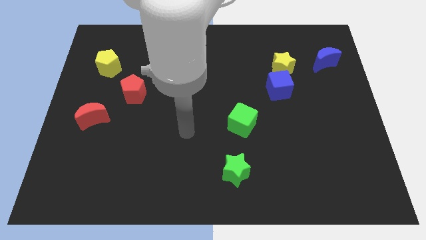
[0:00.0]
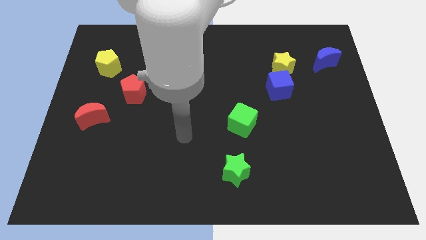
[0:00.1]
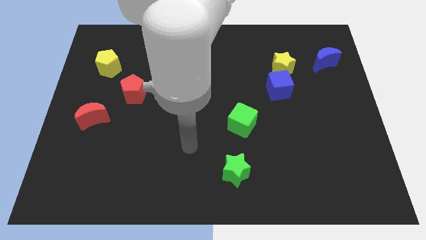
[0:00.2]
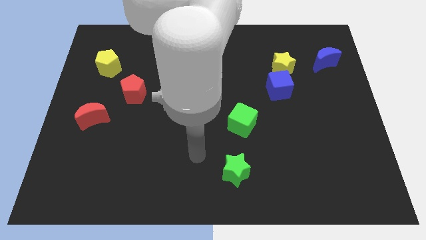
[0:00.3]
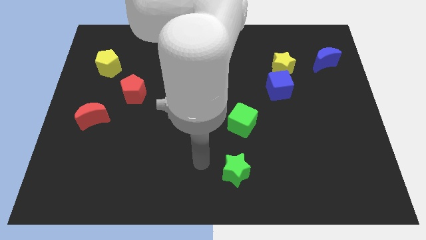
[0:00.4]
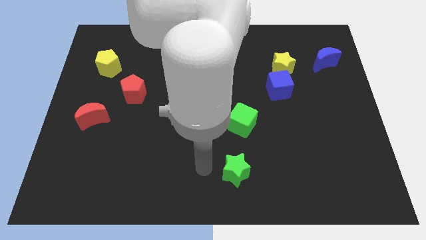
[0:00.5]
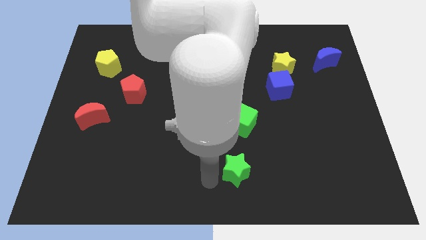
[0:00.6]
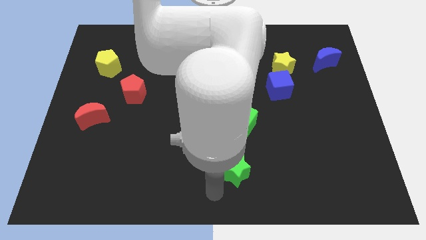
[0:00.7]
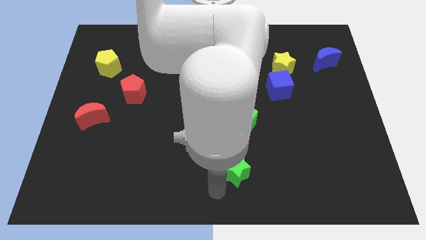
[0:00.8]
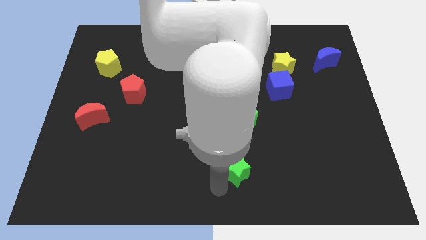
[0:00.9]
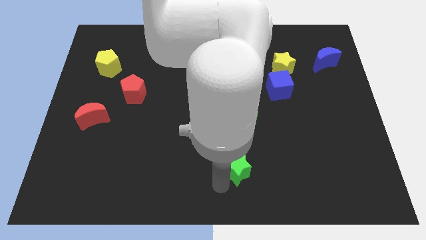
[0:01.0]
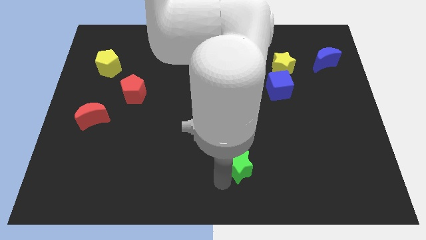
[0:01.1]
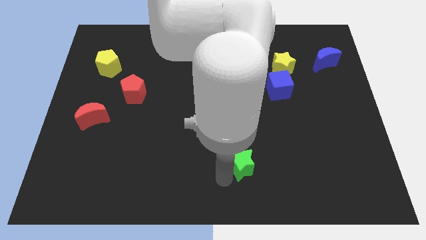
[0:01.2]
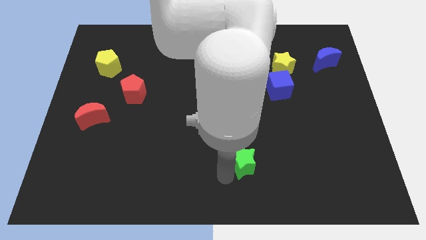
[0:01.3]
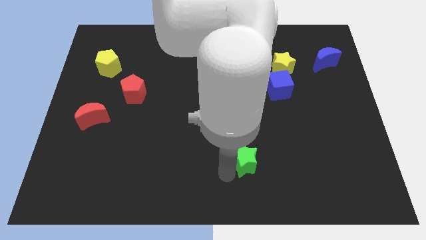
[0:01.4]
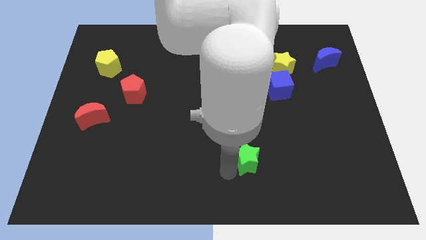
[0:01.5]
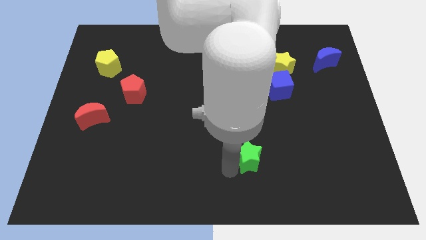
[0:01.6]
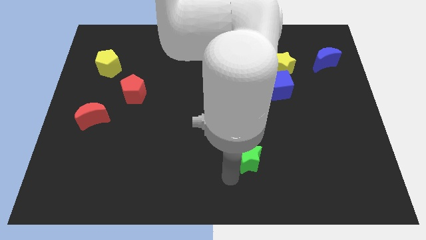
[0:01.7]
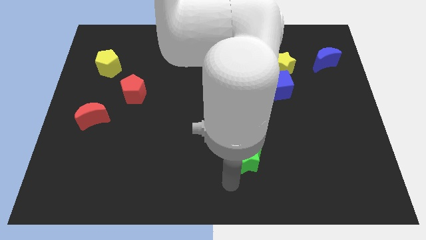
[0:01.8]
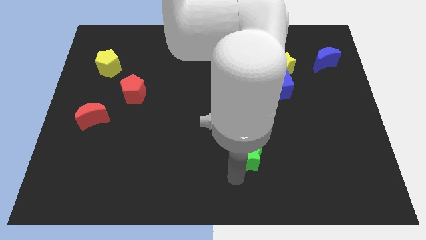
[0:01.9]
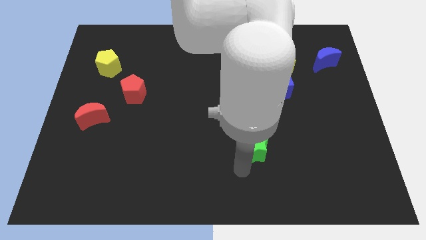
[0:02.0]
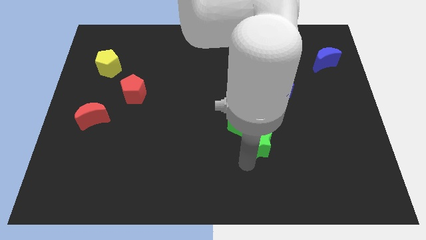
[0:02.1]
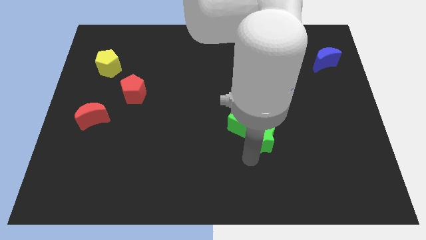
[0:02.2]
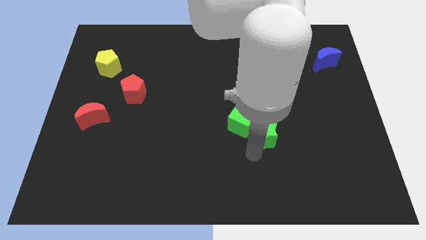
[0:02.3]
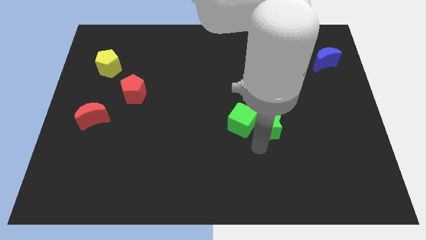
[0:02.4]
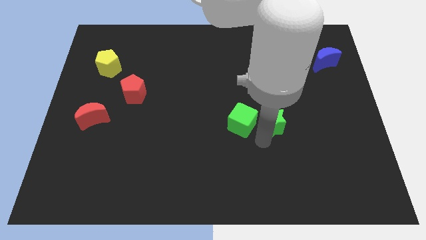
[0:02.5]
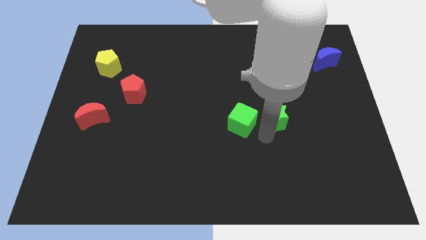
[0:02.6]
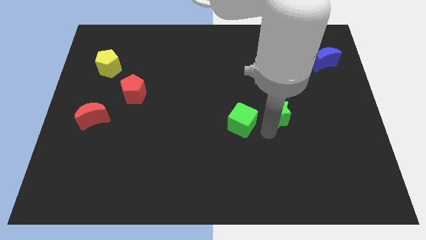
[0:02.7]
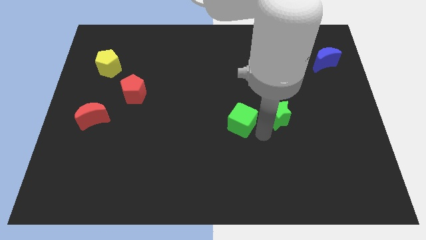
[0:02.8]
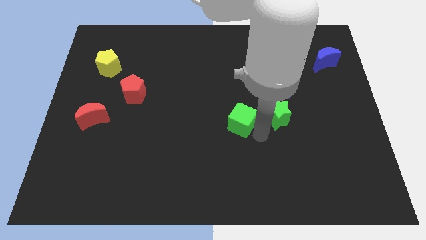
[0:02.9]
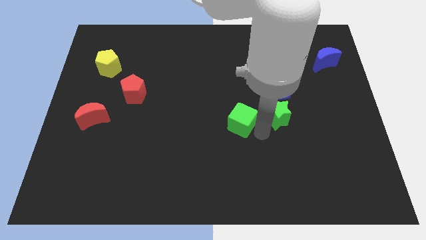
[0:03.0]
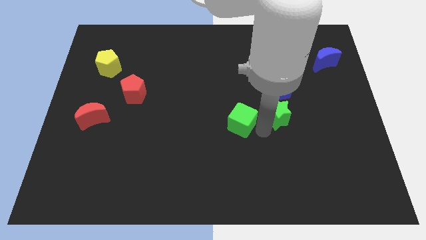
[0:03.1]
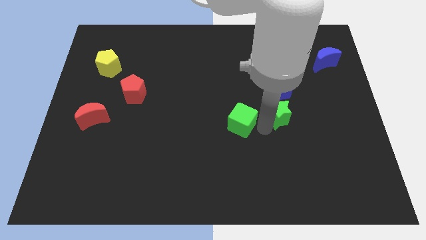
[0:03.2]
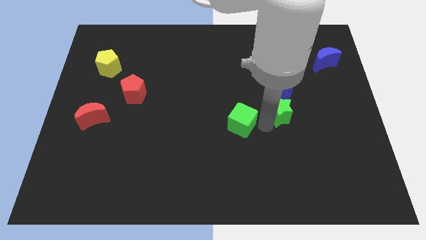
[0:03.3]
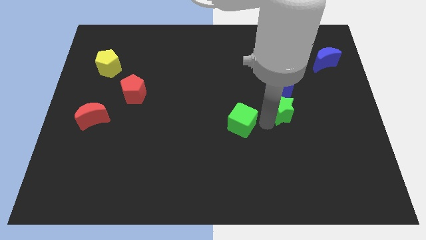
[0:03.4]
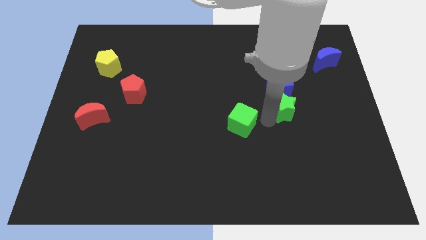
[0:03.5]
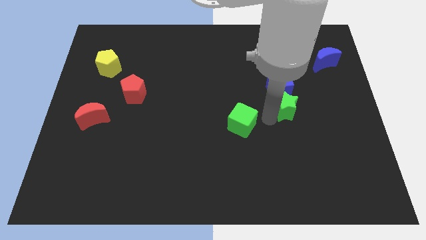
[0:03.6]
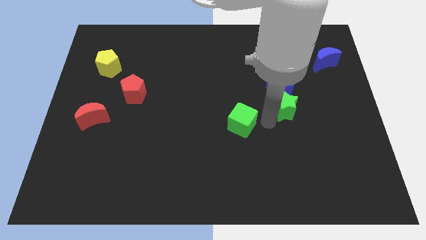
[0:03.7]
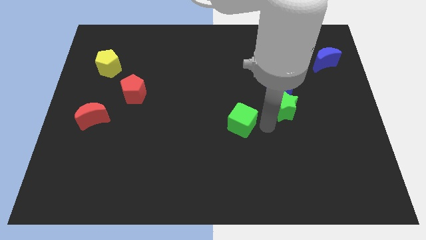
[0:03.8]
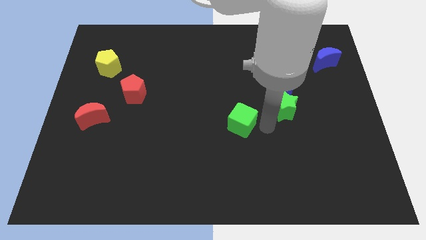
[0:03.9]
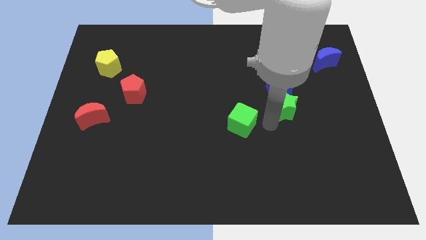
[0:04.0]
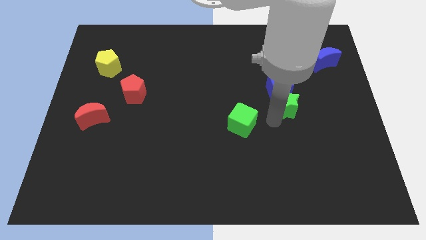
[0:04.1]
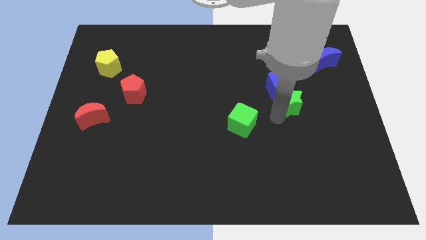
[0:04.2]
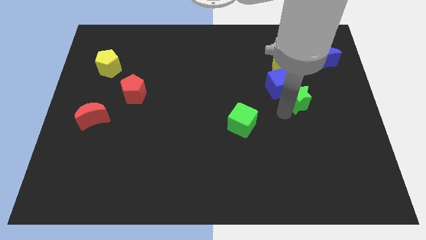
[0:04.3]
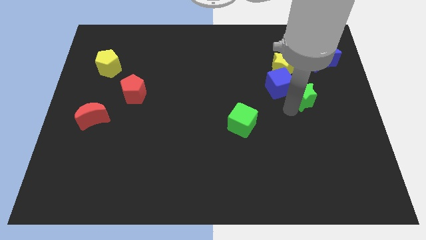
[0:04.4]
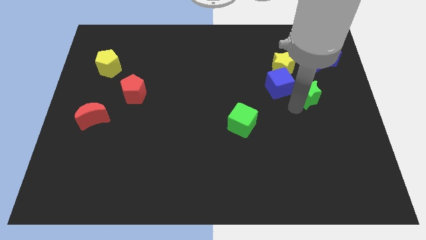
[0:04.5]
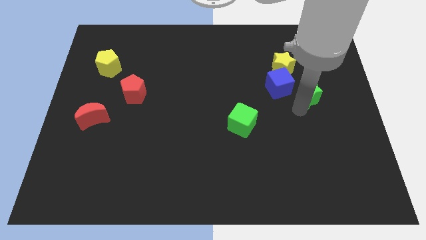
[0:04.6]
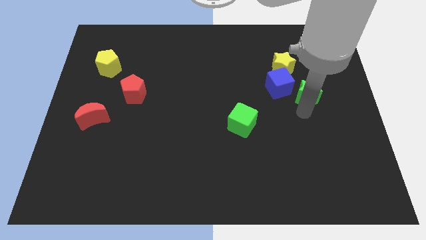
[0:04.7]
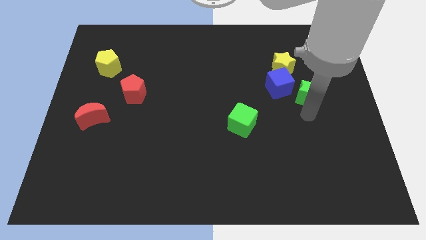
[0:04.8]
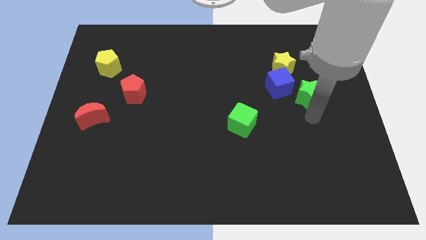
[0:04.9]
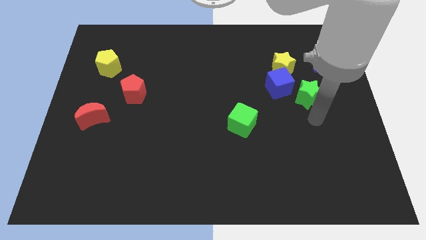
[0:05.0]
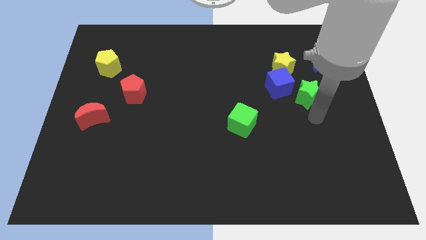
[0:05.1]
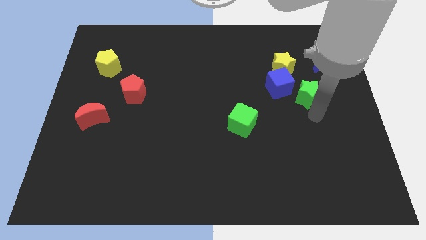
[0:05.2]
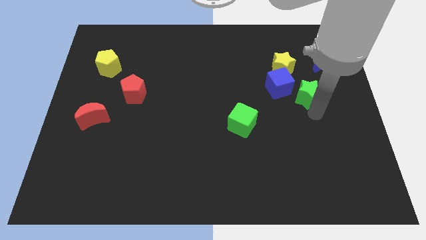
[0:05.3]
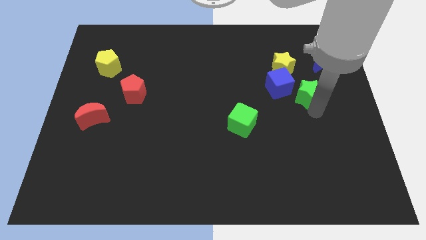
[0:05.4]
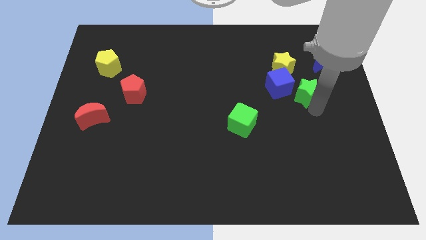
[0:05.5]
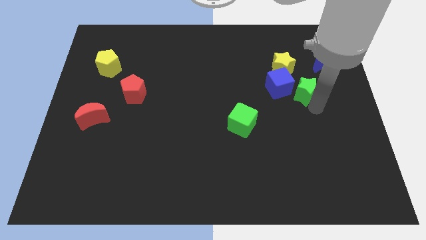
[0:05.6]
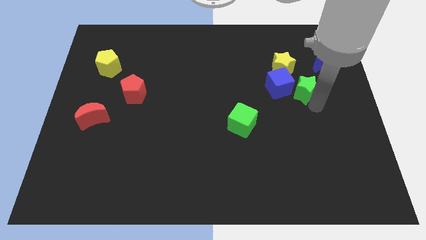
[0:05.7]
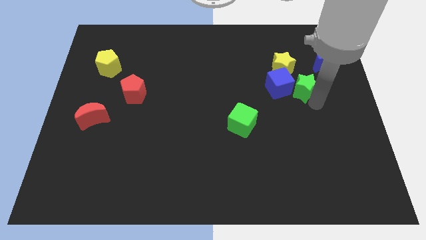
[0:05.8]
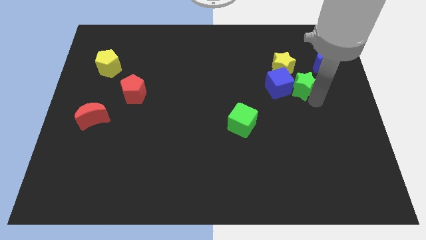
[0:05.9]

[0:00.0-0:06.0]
put the green star diagonally up and to the right of the blue cube
